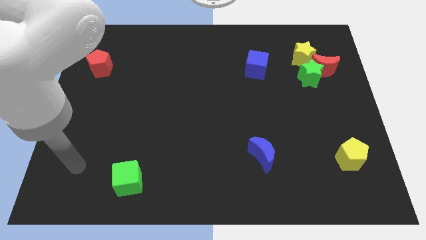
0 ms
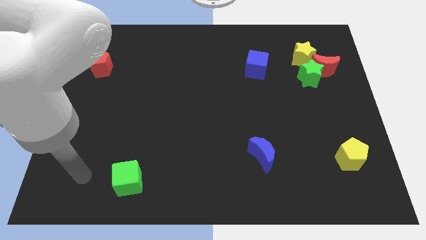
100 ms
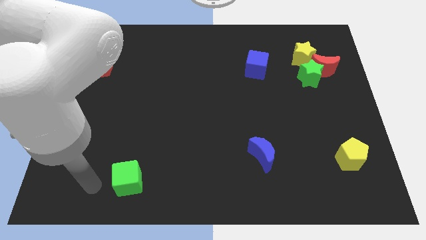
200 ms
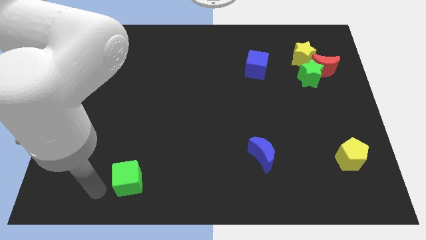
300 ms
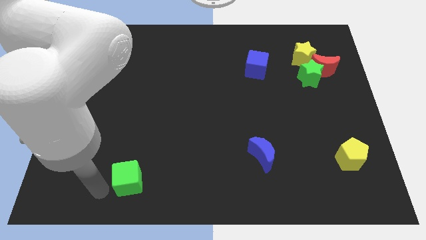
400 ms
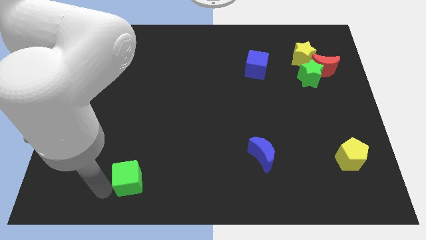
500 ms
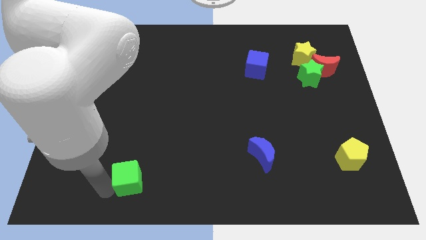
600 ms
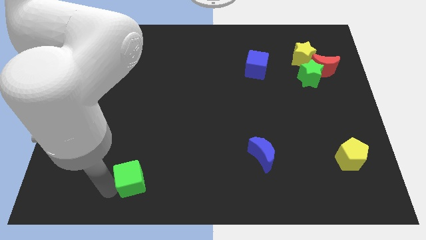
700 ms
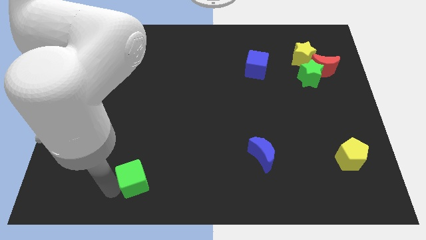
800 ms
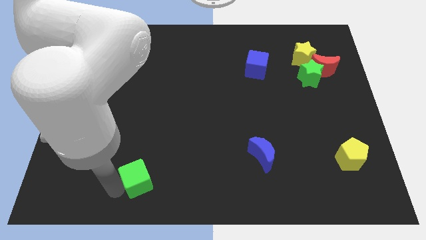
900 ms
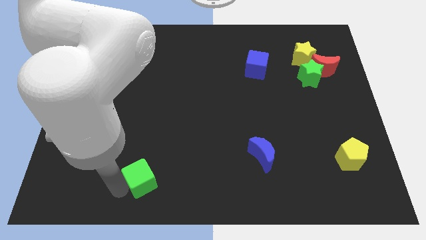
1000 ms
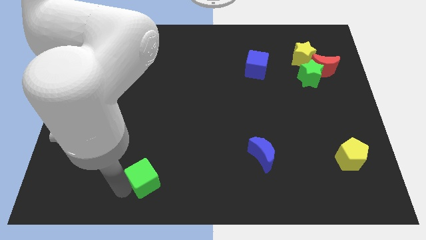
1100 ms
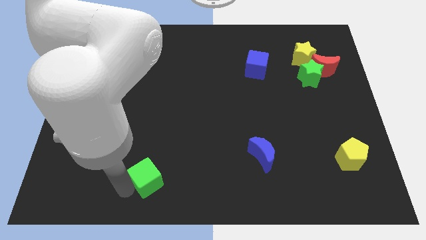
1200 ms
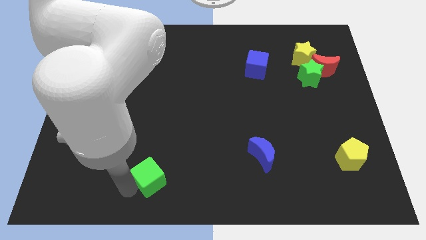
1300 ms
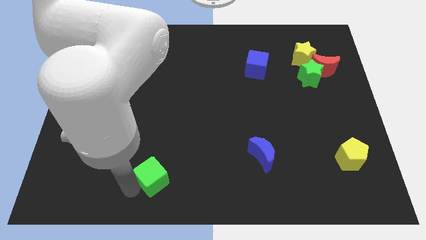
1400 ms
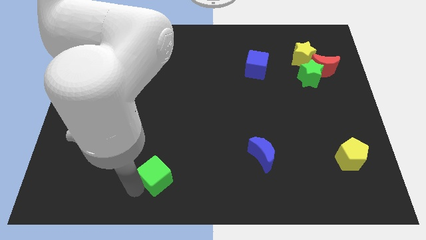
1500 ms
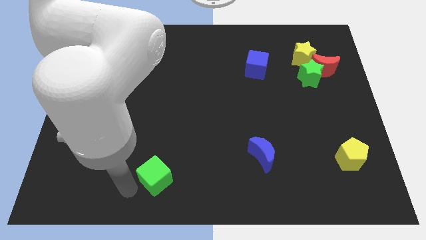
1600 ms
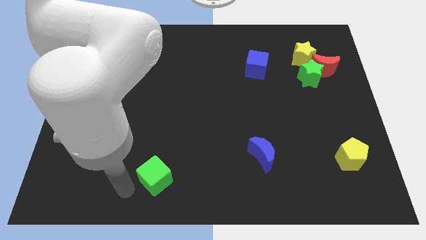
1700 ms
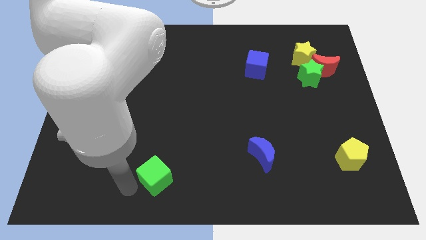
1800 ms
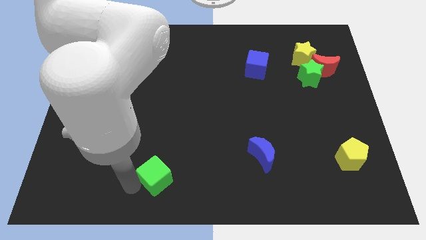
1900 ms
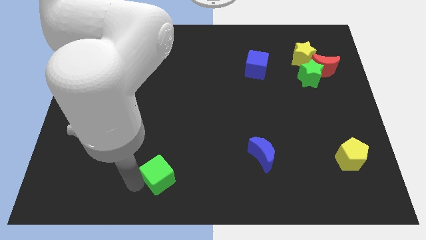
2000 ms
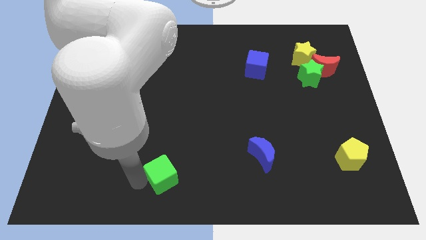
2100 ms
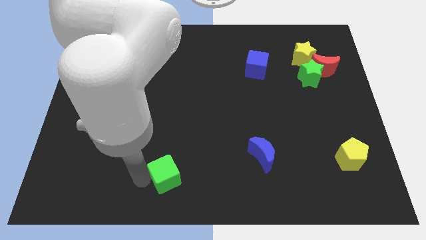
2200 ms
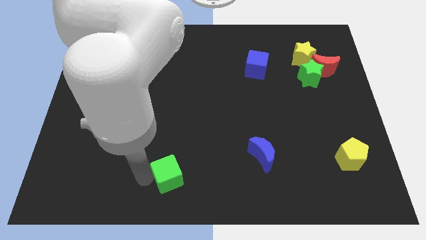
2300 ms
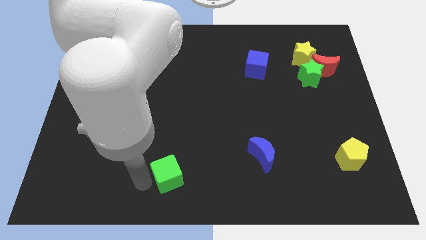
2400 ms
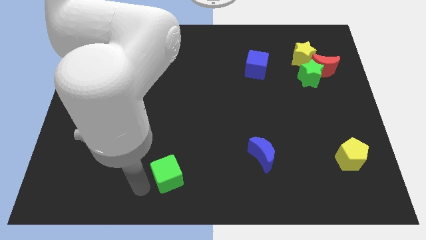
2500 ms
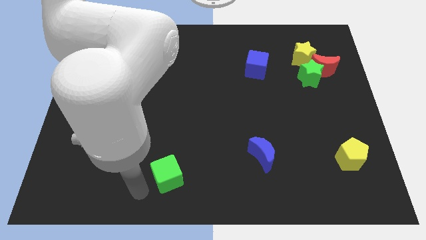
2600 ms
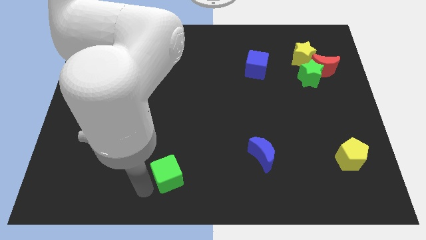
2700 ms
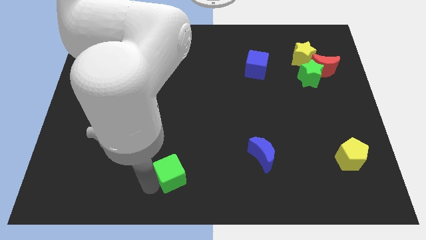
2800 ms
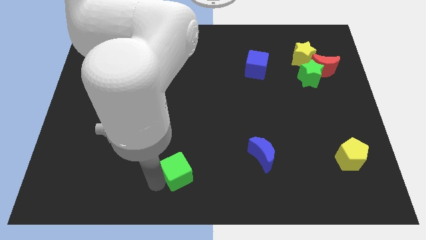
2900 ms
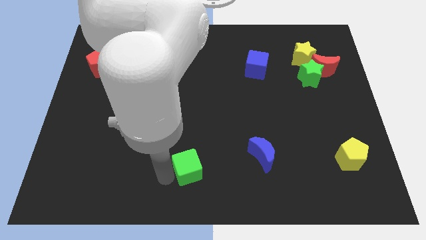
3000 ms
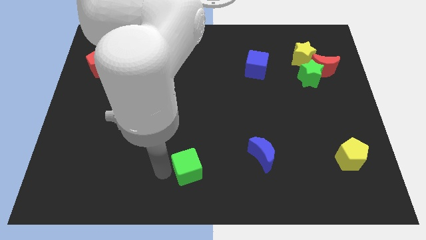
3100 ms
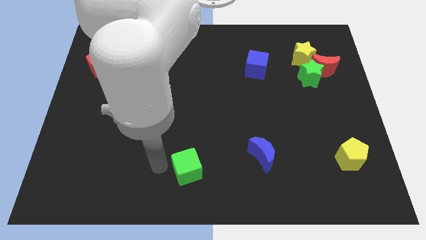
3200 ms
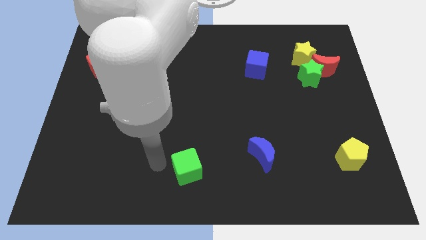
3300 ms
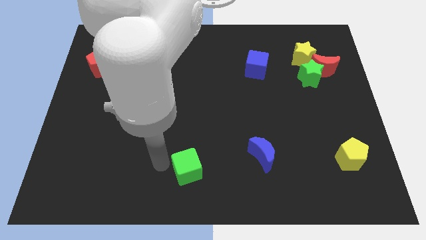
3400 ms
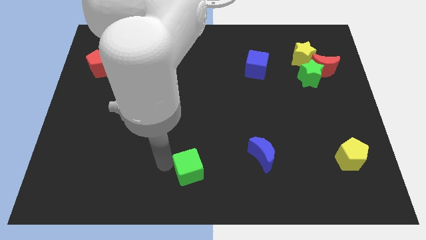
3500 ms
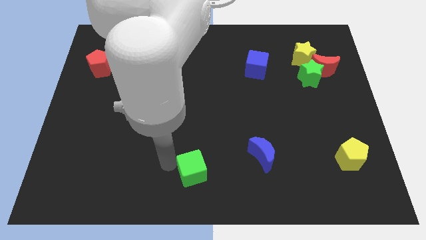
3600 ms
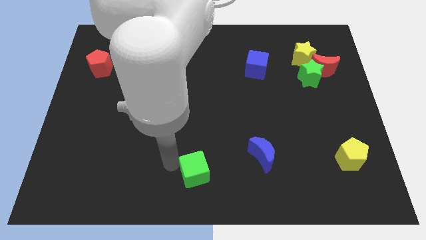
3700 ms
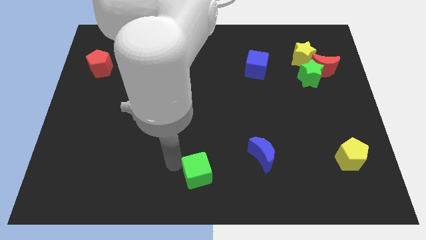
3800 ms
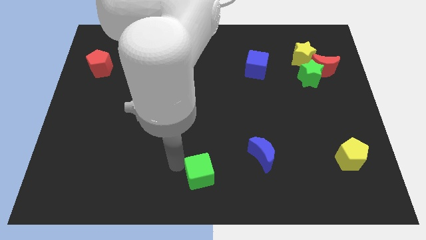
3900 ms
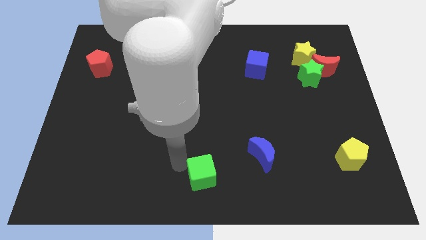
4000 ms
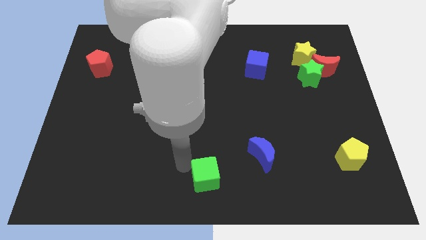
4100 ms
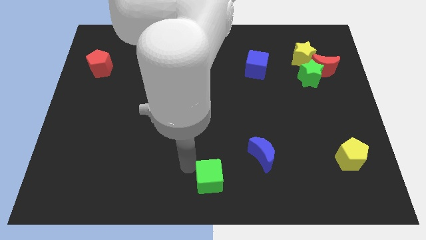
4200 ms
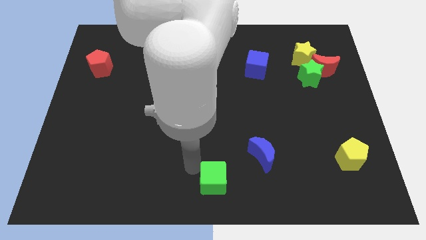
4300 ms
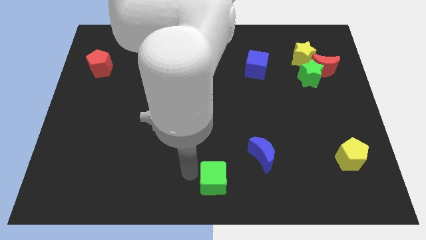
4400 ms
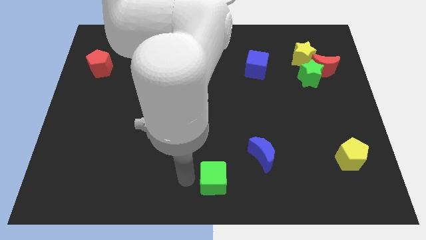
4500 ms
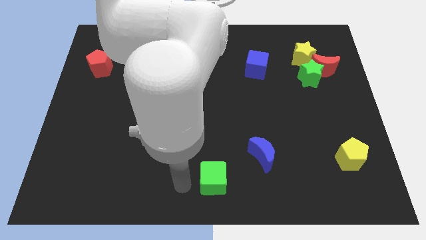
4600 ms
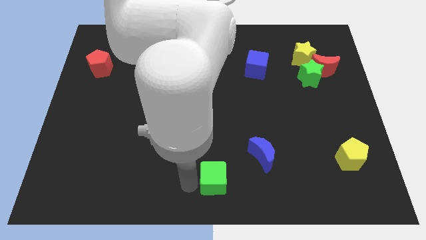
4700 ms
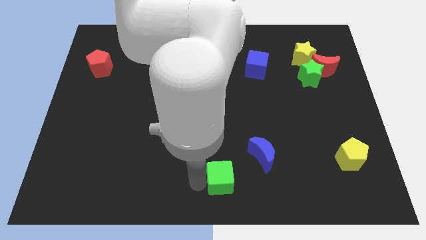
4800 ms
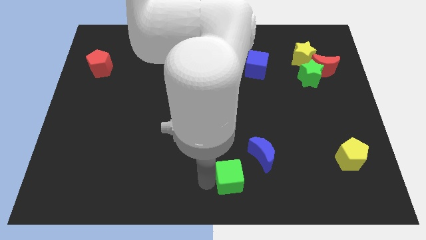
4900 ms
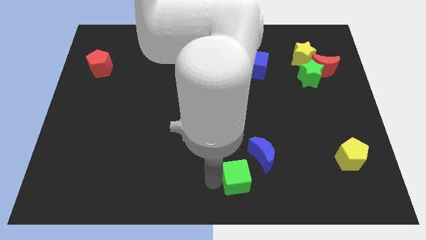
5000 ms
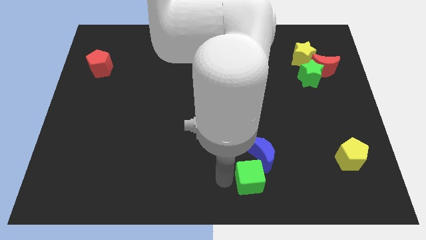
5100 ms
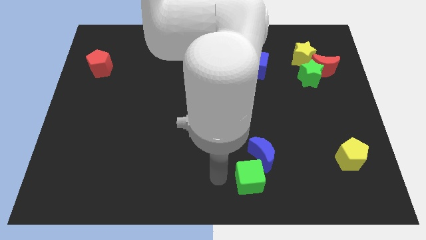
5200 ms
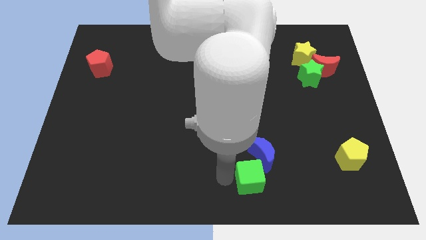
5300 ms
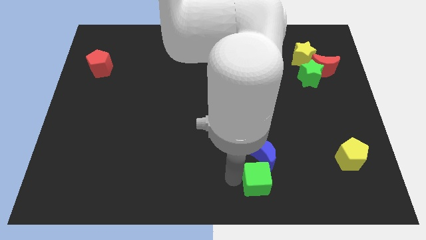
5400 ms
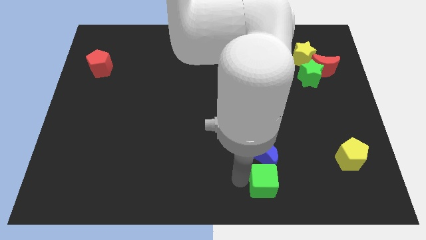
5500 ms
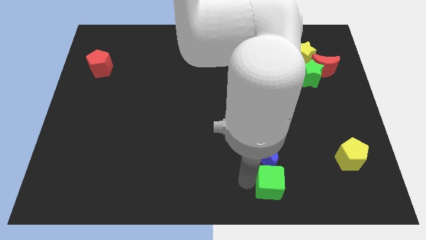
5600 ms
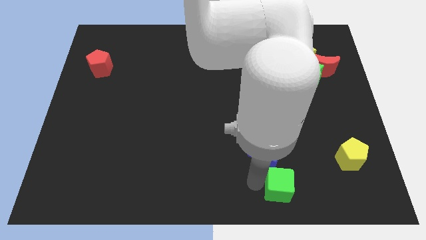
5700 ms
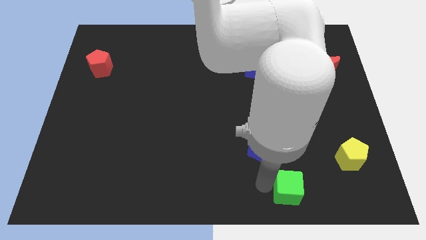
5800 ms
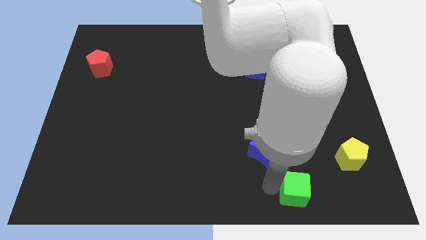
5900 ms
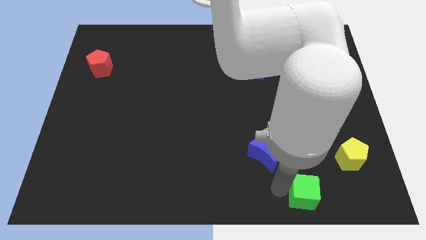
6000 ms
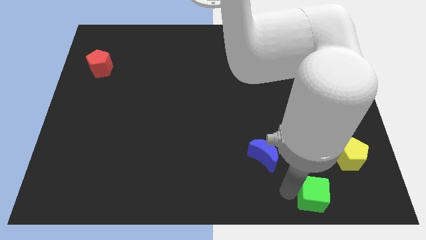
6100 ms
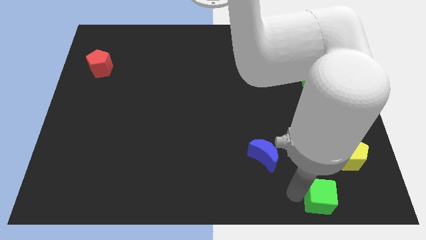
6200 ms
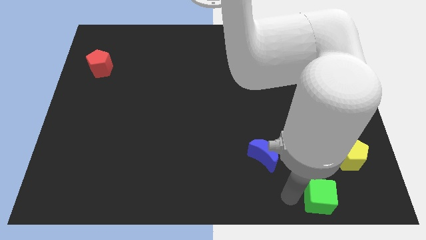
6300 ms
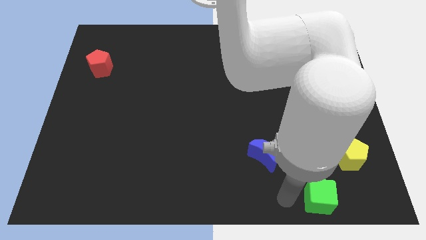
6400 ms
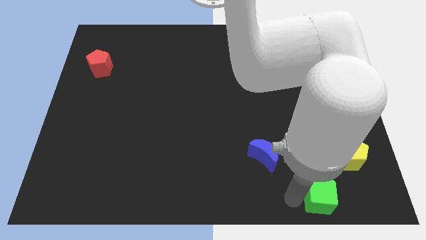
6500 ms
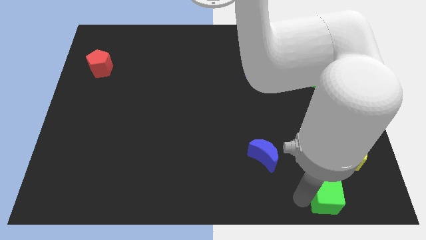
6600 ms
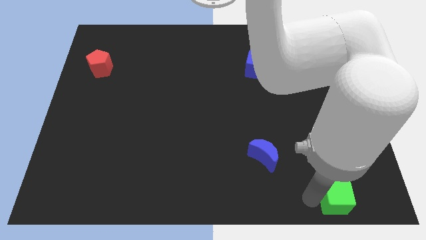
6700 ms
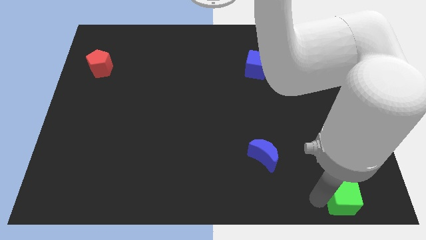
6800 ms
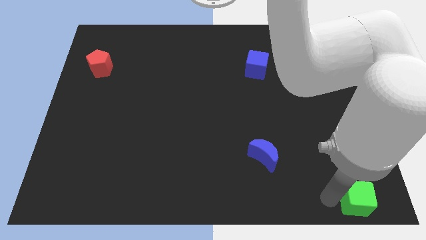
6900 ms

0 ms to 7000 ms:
put the green cube to the bottom right
